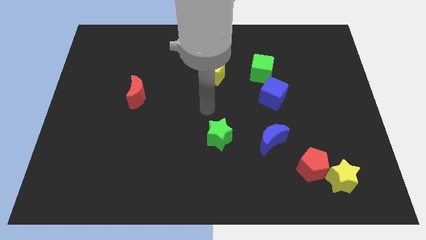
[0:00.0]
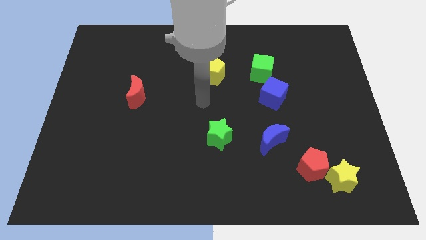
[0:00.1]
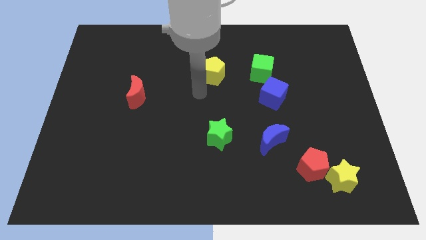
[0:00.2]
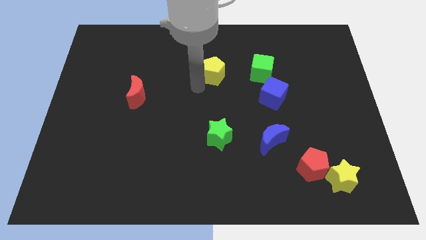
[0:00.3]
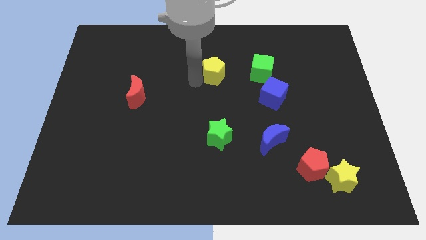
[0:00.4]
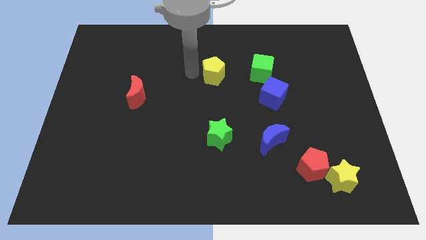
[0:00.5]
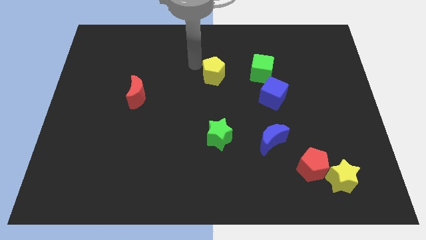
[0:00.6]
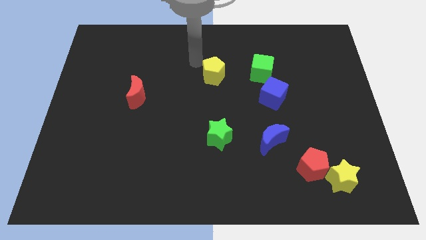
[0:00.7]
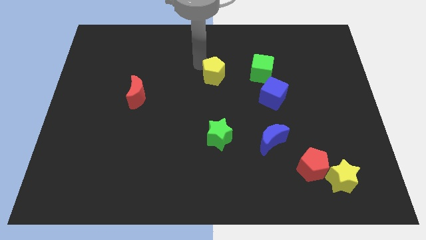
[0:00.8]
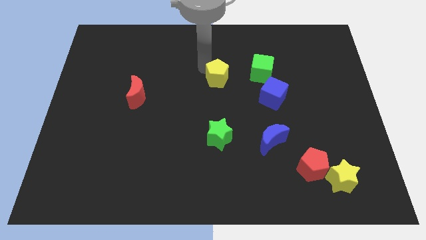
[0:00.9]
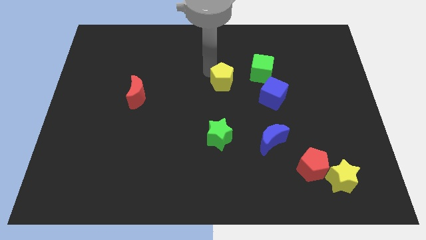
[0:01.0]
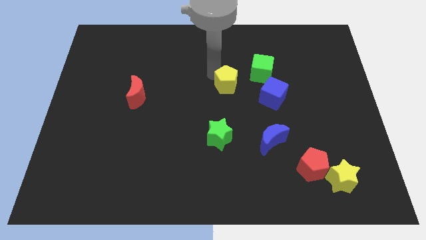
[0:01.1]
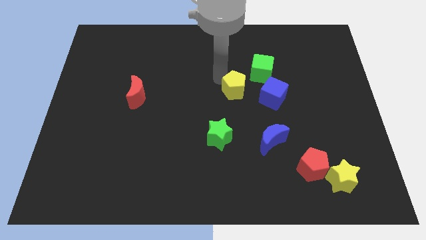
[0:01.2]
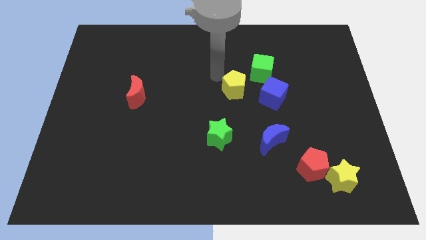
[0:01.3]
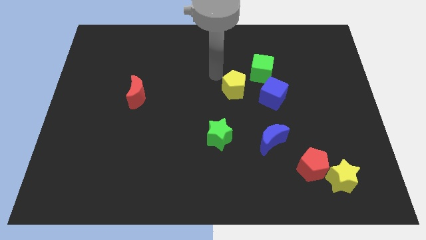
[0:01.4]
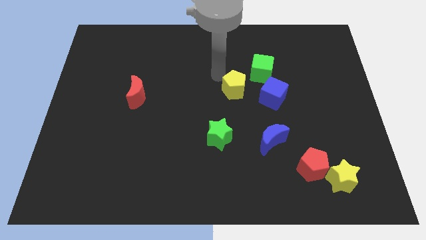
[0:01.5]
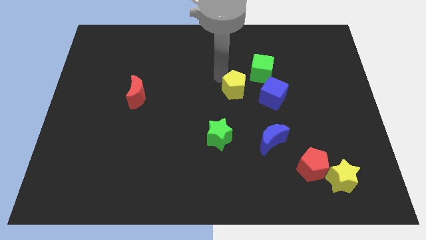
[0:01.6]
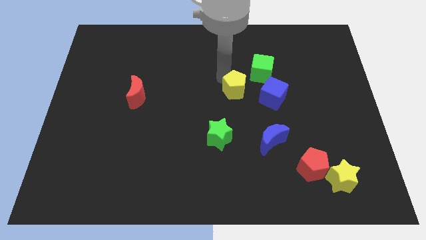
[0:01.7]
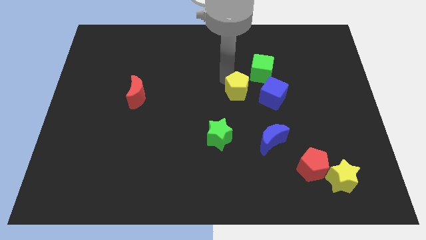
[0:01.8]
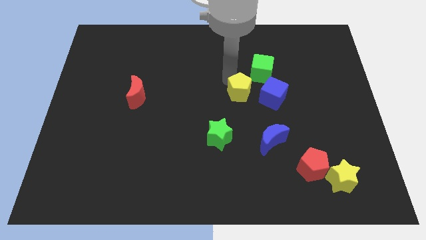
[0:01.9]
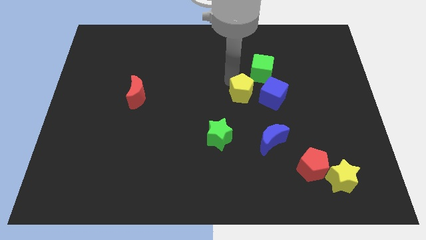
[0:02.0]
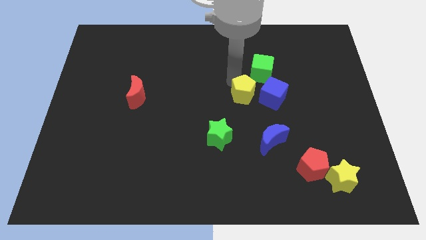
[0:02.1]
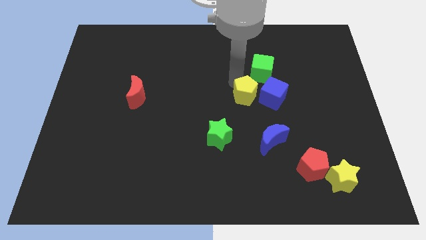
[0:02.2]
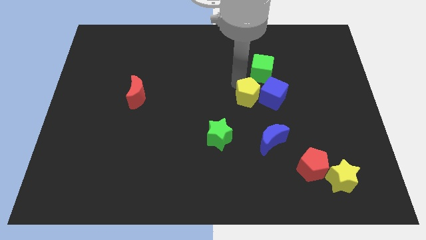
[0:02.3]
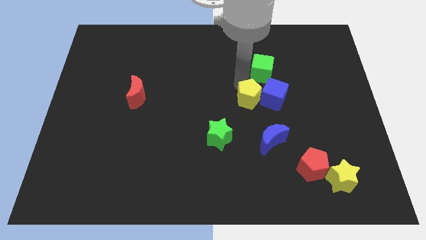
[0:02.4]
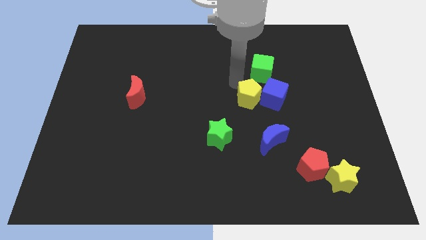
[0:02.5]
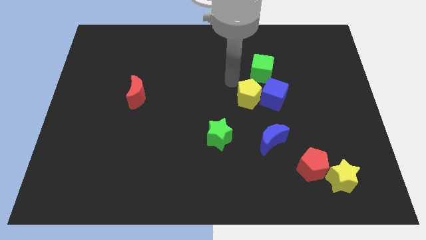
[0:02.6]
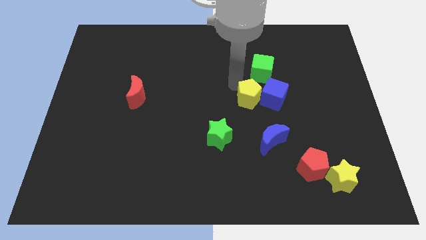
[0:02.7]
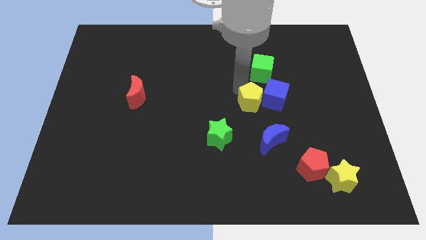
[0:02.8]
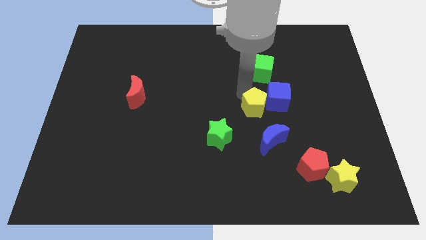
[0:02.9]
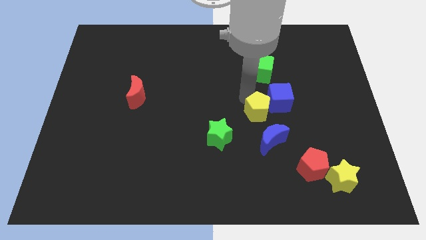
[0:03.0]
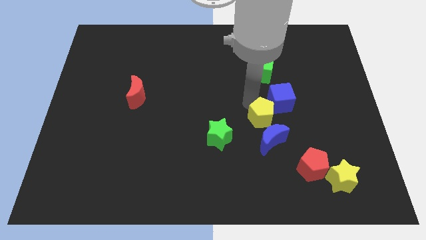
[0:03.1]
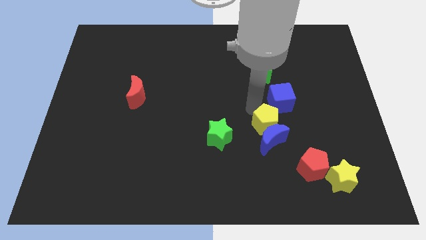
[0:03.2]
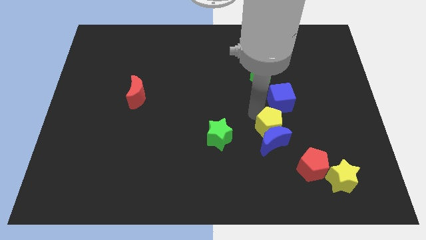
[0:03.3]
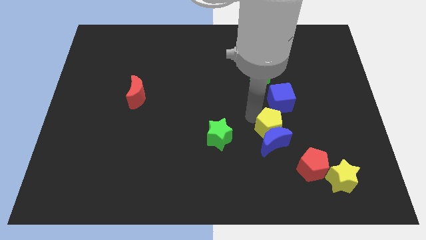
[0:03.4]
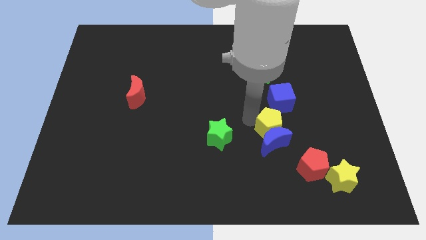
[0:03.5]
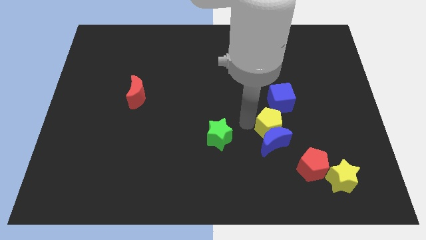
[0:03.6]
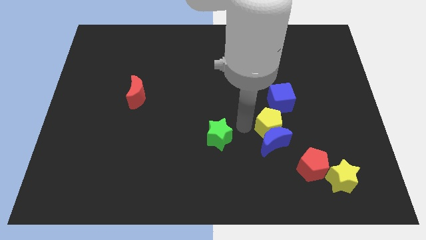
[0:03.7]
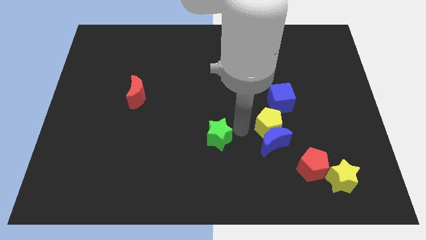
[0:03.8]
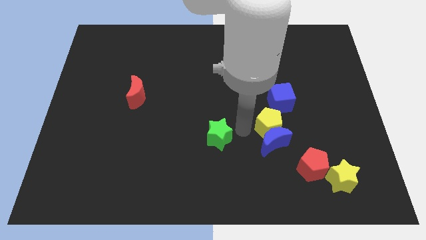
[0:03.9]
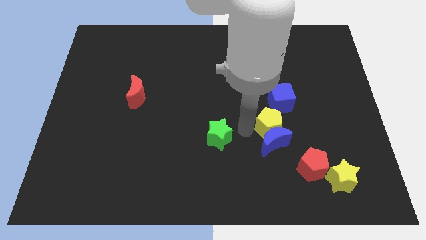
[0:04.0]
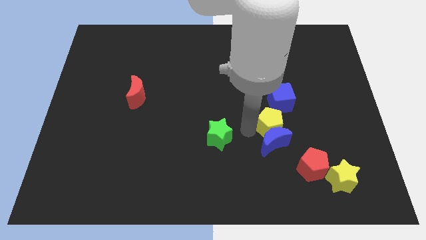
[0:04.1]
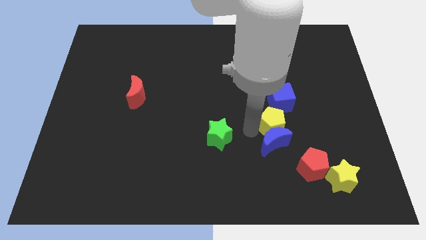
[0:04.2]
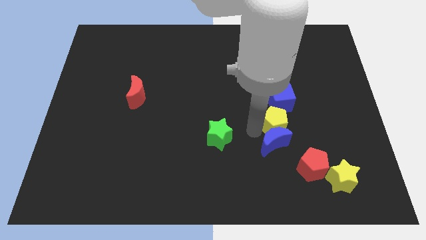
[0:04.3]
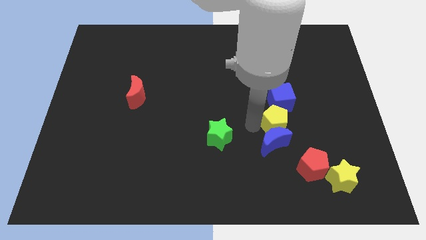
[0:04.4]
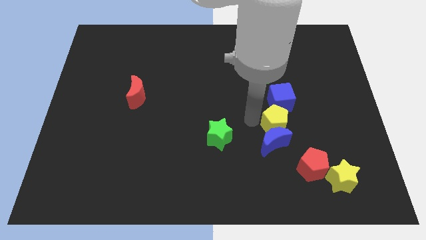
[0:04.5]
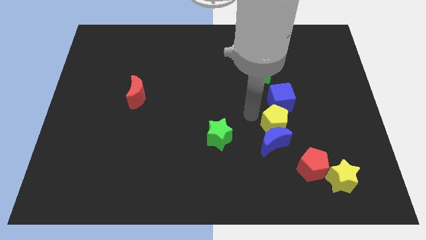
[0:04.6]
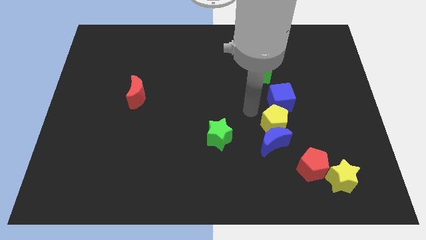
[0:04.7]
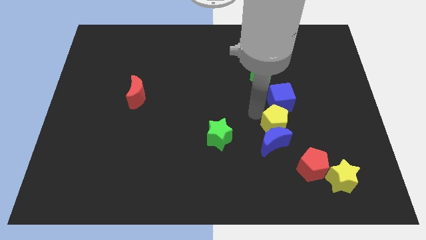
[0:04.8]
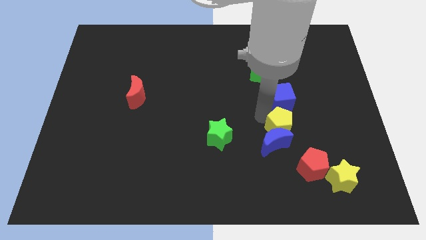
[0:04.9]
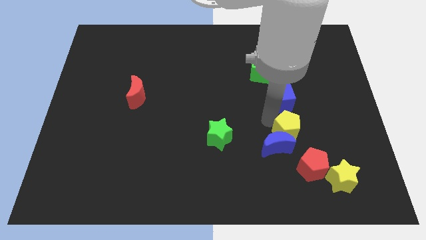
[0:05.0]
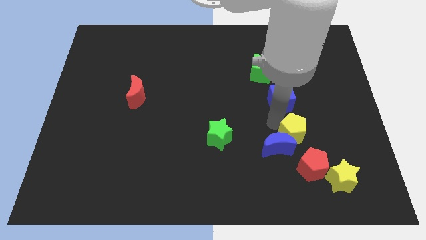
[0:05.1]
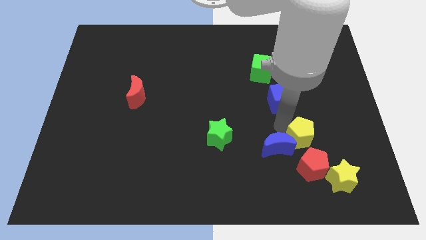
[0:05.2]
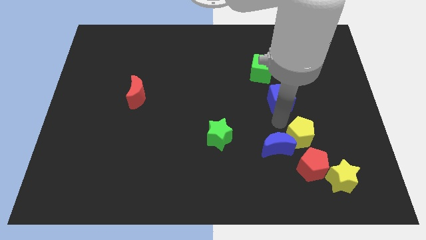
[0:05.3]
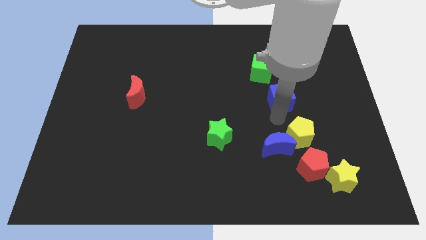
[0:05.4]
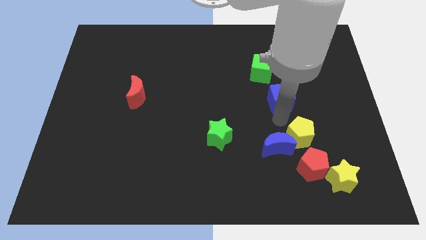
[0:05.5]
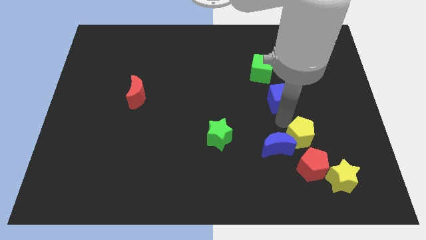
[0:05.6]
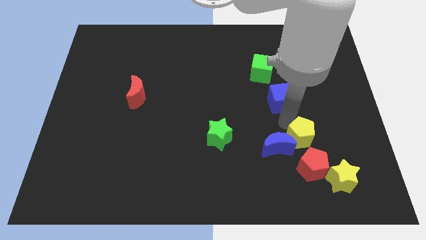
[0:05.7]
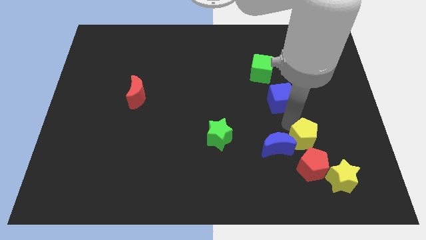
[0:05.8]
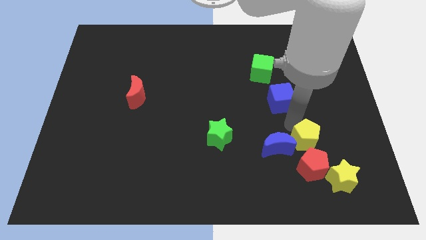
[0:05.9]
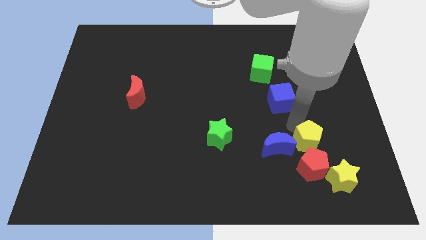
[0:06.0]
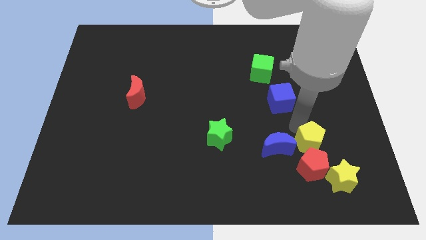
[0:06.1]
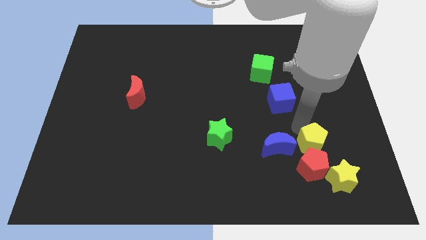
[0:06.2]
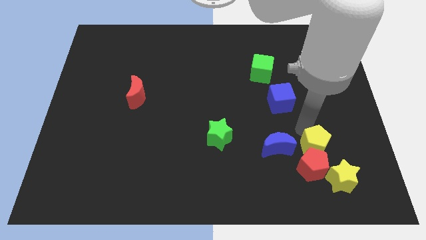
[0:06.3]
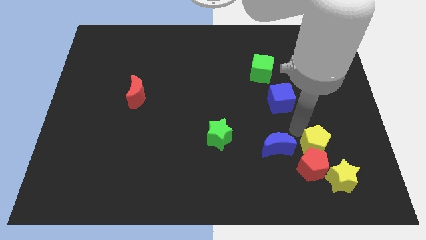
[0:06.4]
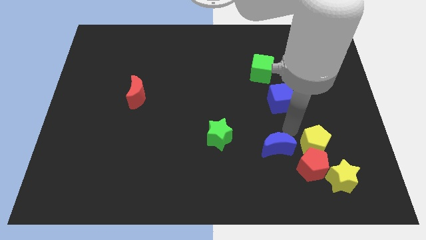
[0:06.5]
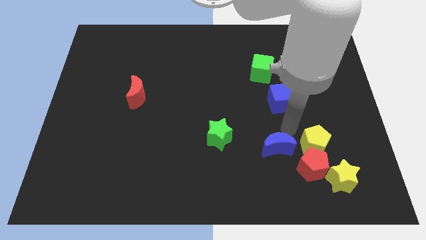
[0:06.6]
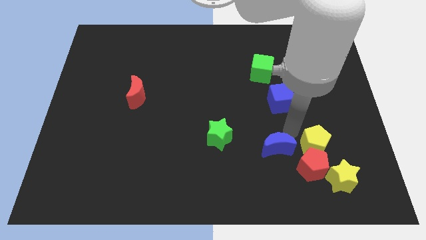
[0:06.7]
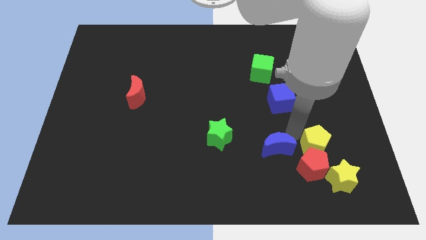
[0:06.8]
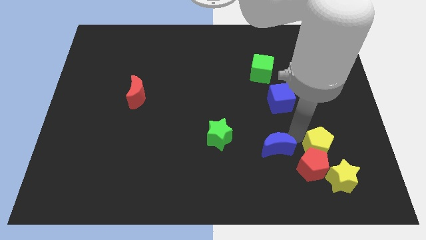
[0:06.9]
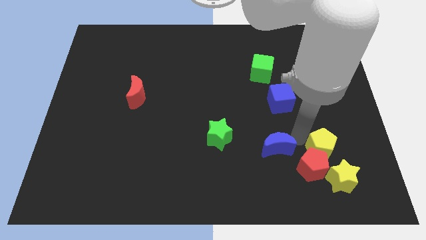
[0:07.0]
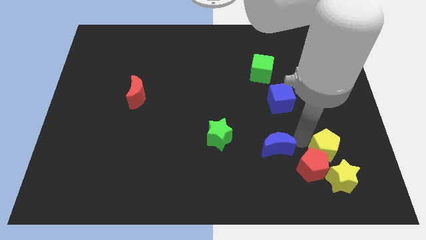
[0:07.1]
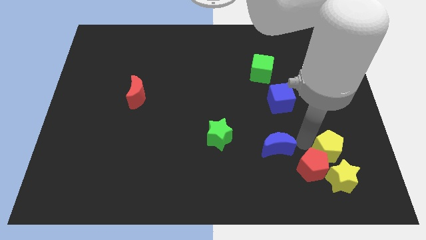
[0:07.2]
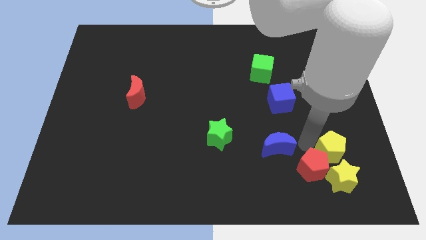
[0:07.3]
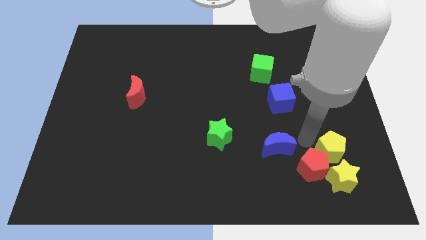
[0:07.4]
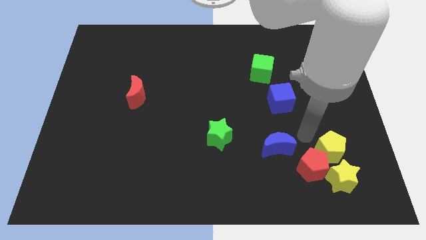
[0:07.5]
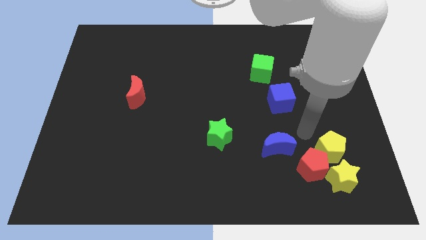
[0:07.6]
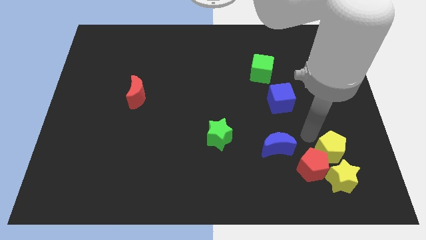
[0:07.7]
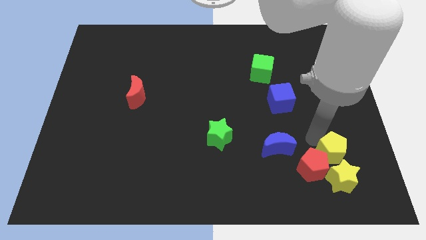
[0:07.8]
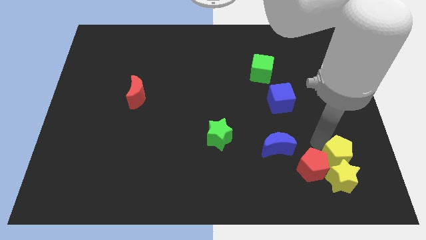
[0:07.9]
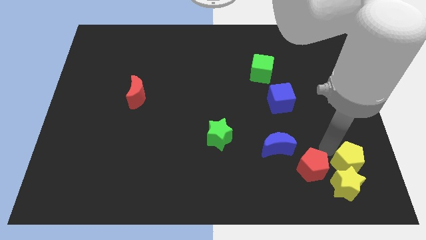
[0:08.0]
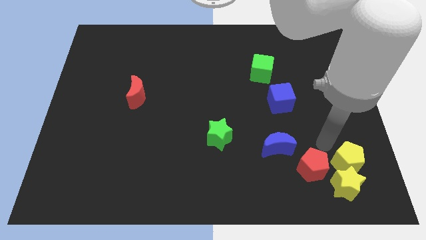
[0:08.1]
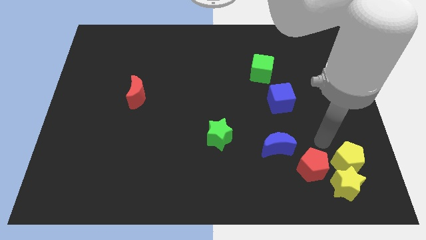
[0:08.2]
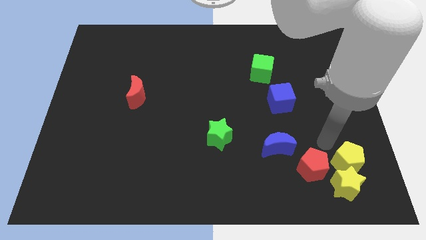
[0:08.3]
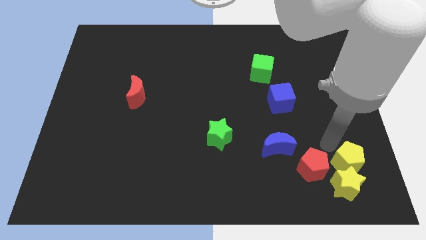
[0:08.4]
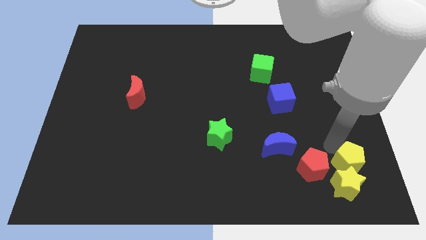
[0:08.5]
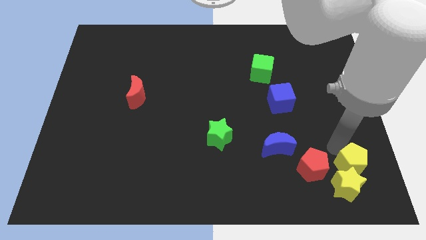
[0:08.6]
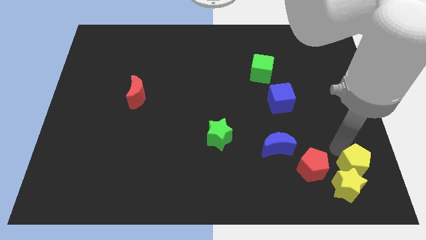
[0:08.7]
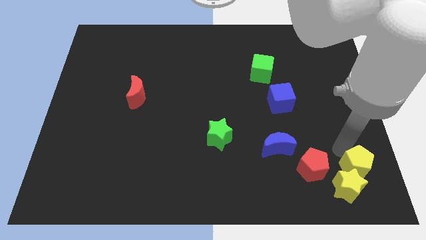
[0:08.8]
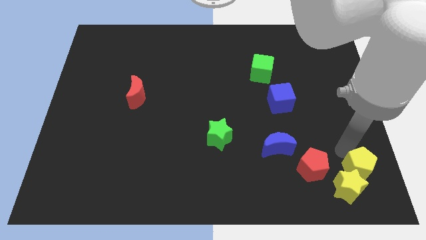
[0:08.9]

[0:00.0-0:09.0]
move the yellow pentagon to the bottom right corner
